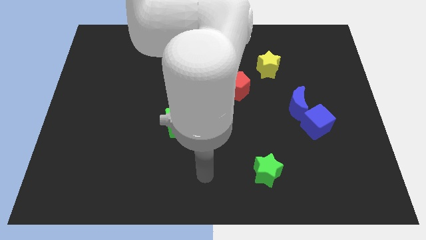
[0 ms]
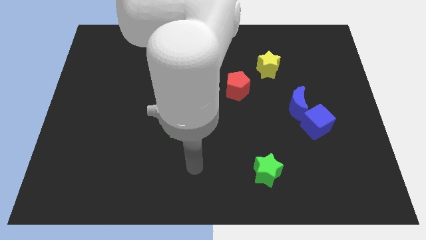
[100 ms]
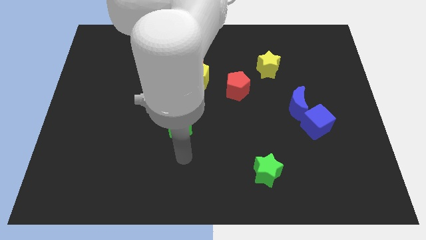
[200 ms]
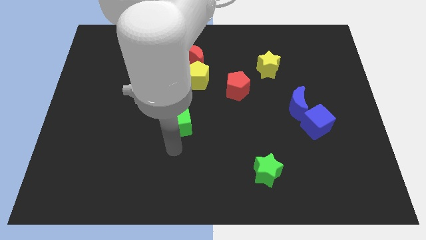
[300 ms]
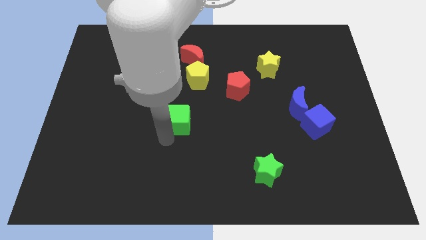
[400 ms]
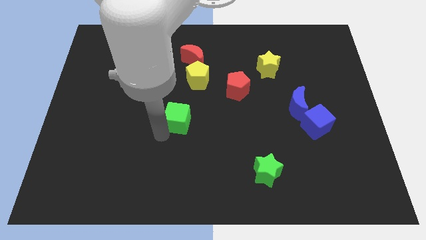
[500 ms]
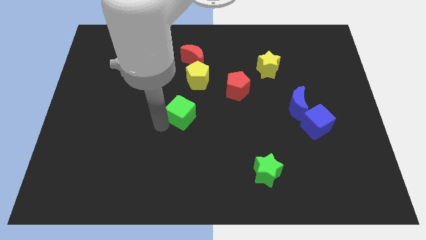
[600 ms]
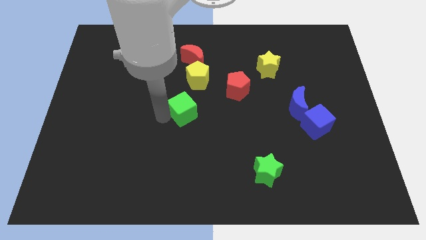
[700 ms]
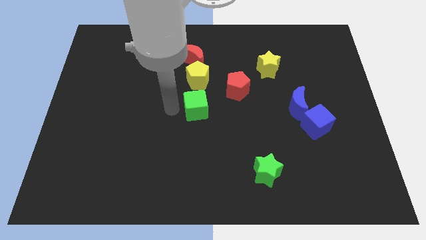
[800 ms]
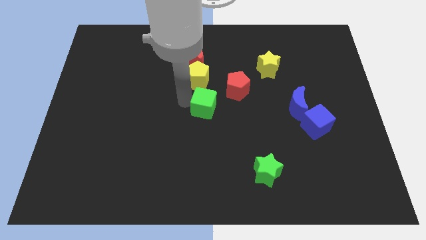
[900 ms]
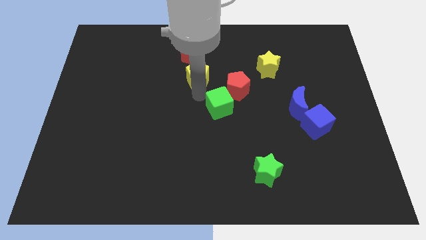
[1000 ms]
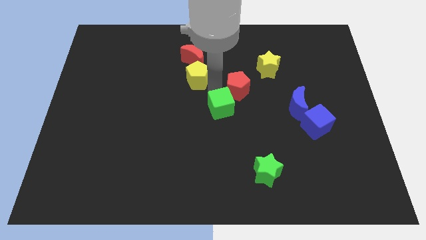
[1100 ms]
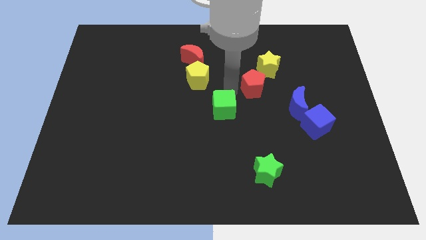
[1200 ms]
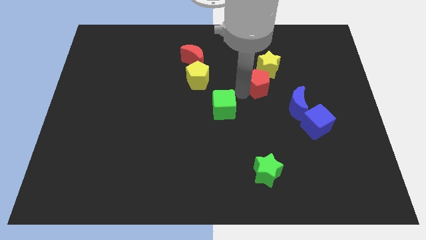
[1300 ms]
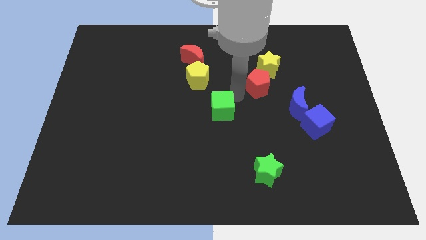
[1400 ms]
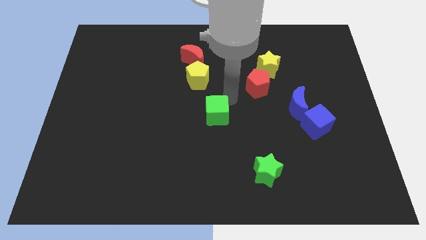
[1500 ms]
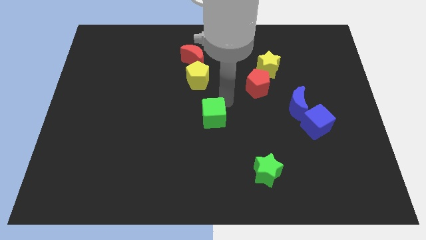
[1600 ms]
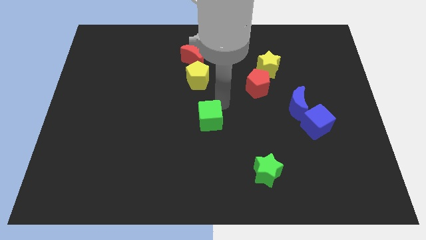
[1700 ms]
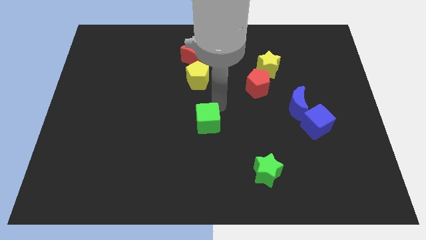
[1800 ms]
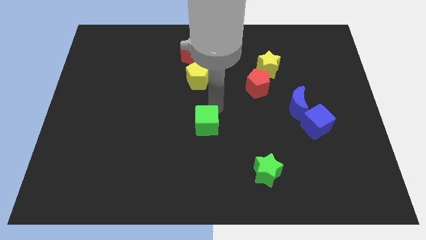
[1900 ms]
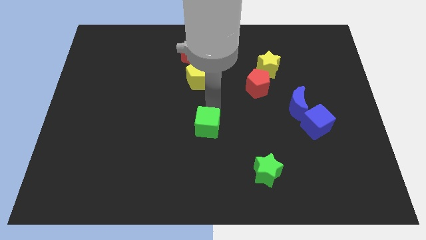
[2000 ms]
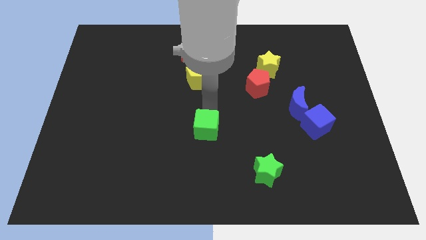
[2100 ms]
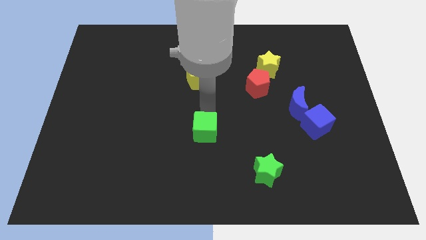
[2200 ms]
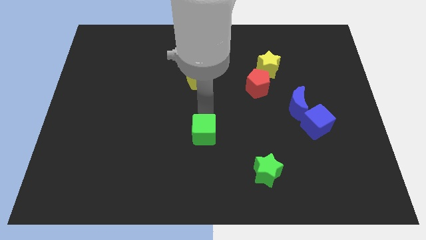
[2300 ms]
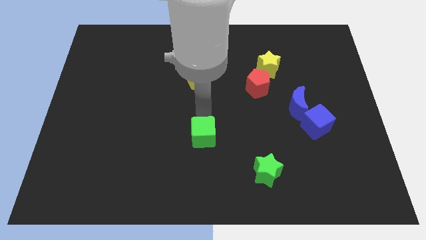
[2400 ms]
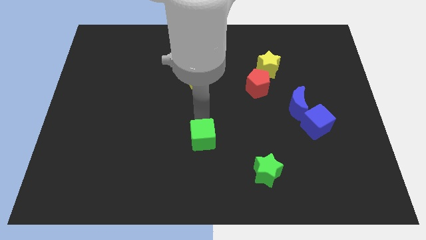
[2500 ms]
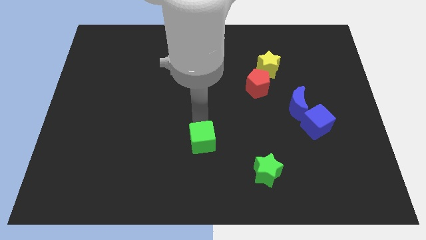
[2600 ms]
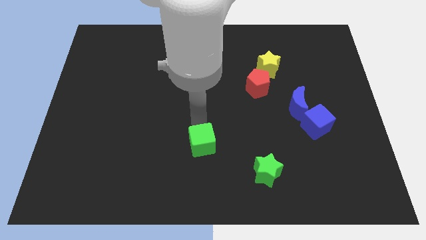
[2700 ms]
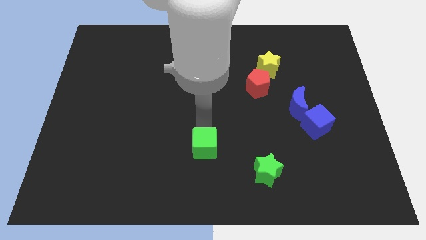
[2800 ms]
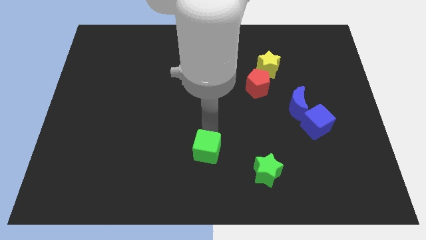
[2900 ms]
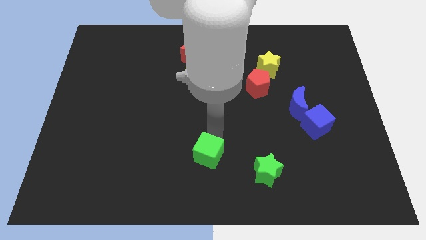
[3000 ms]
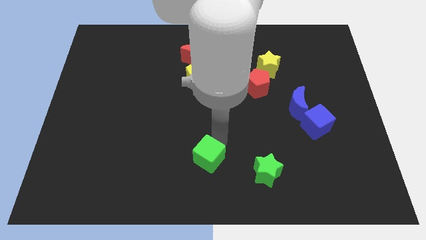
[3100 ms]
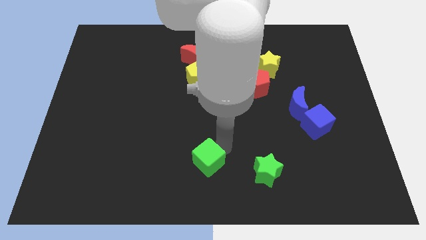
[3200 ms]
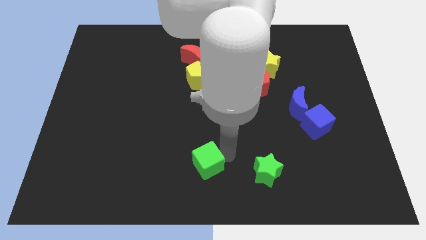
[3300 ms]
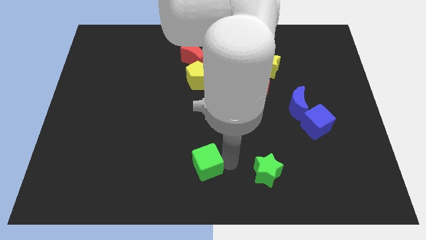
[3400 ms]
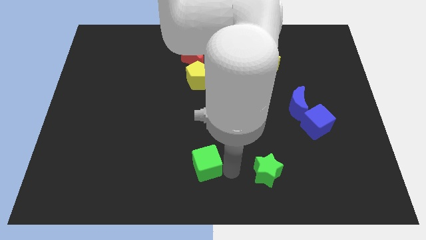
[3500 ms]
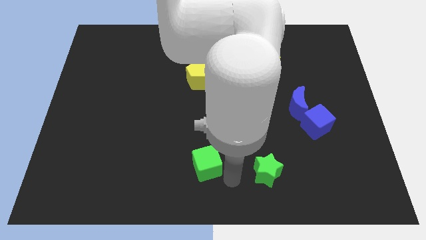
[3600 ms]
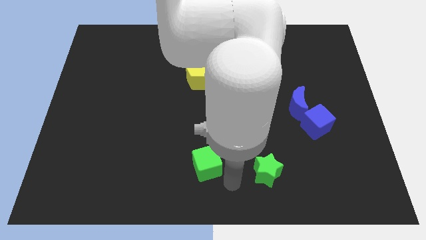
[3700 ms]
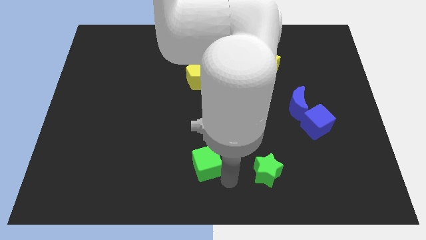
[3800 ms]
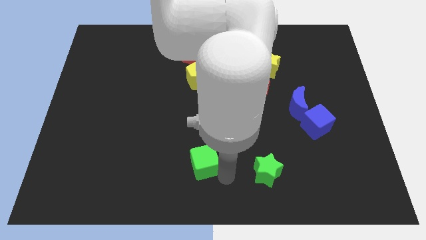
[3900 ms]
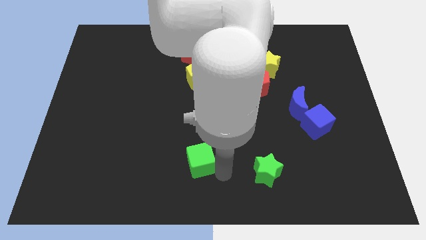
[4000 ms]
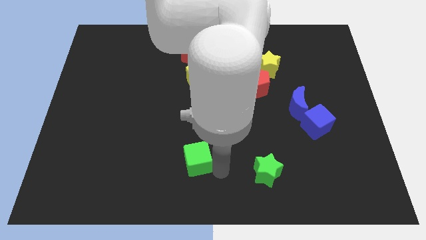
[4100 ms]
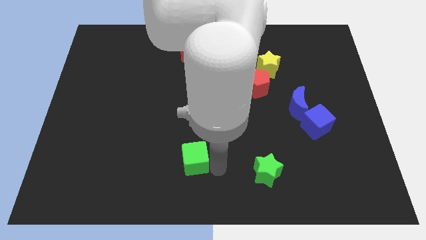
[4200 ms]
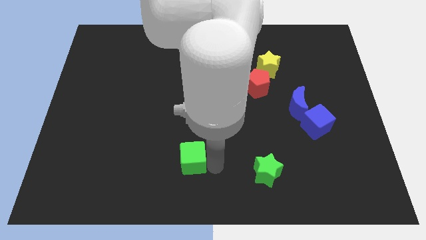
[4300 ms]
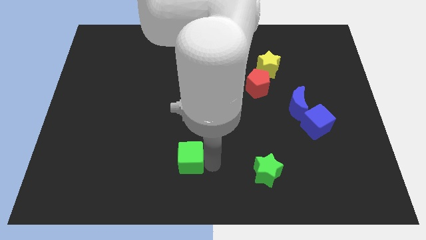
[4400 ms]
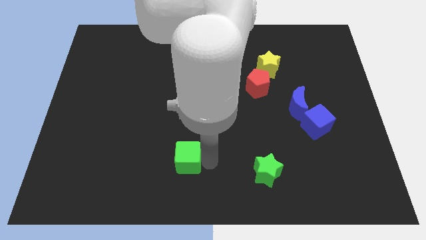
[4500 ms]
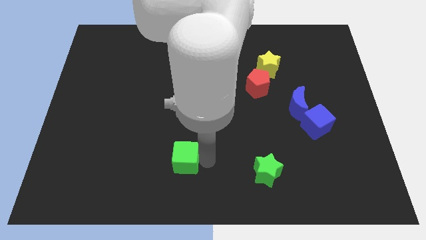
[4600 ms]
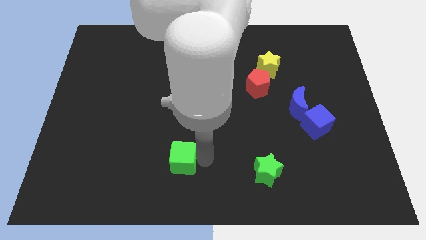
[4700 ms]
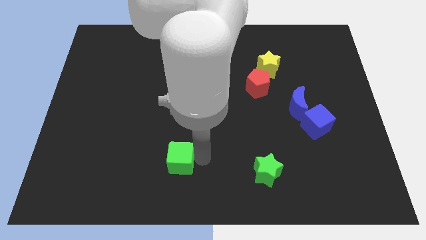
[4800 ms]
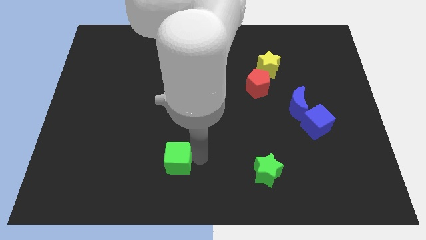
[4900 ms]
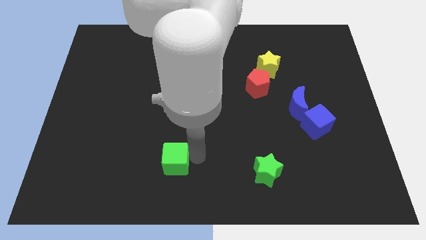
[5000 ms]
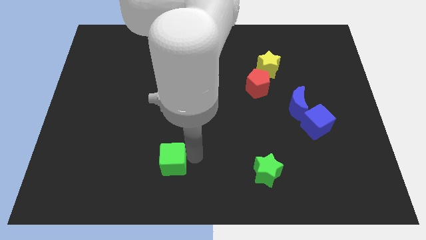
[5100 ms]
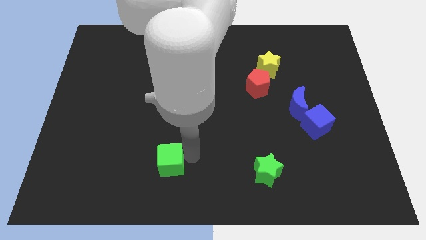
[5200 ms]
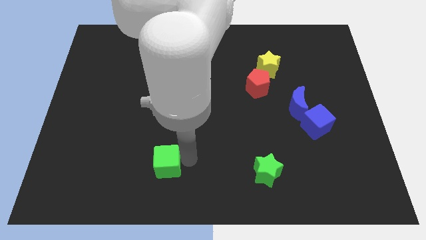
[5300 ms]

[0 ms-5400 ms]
slightly push the green cube down and left

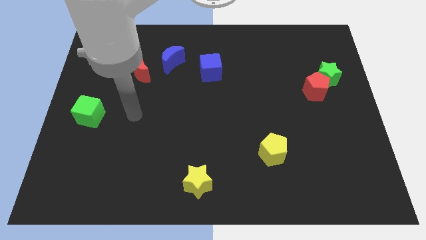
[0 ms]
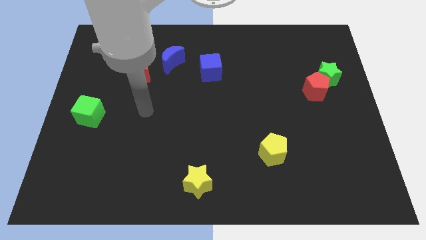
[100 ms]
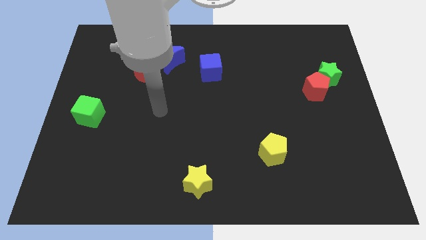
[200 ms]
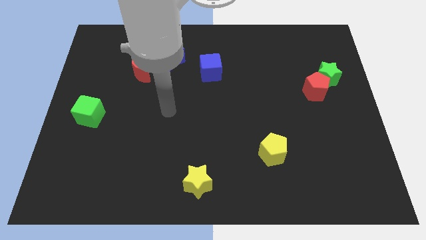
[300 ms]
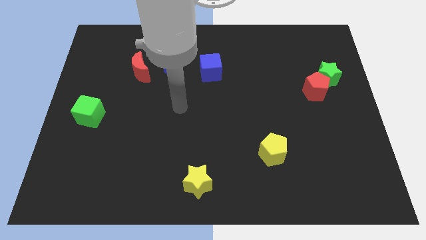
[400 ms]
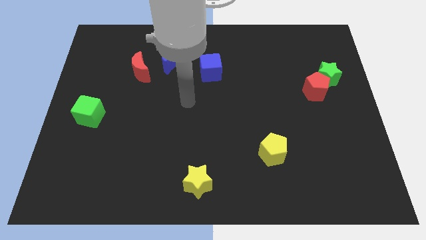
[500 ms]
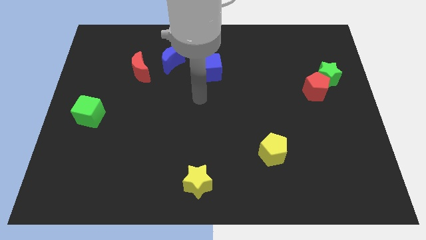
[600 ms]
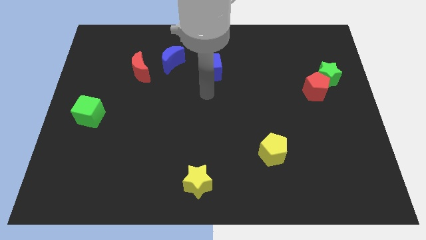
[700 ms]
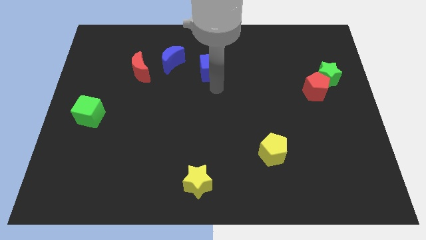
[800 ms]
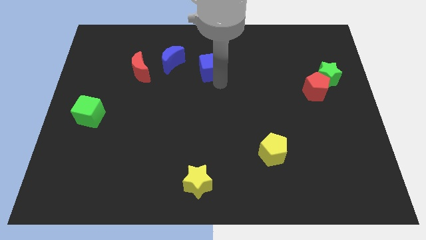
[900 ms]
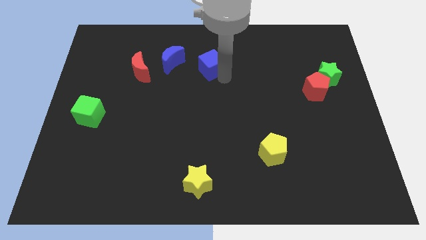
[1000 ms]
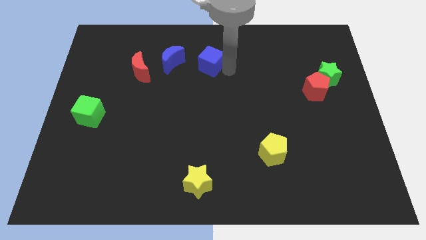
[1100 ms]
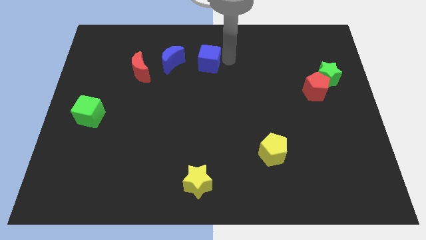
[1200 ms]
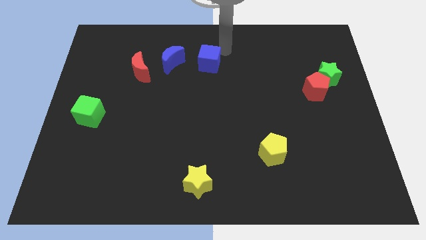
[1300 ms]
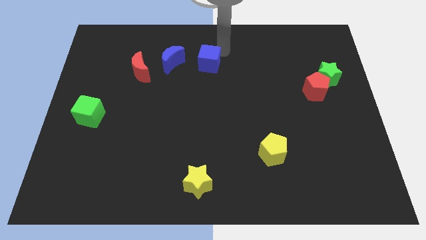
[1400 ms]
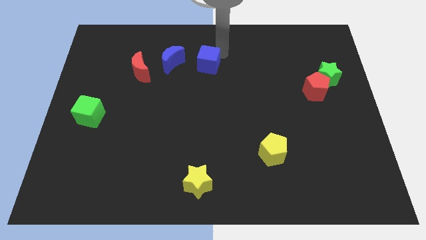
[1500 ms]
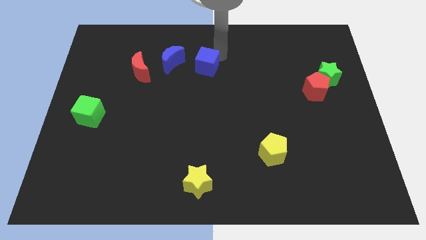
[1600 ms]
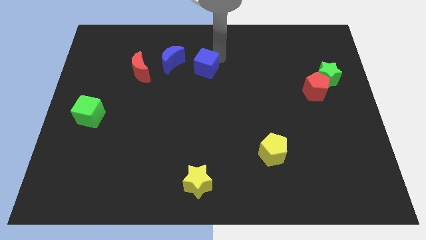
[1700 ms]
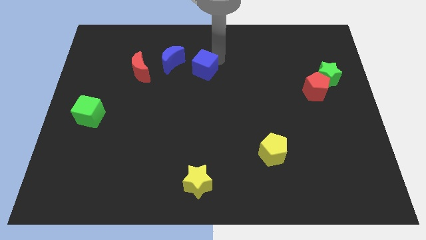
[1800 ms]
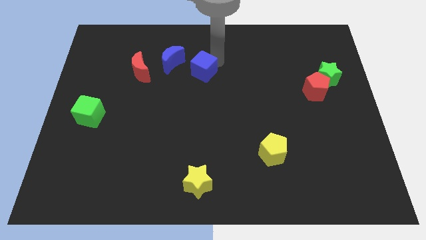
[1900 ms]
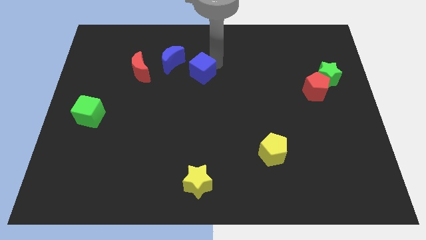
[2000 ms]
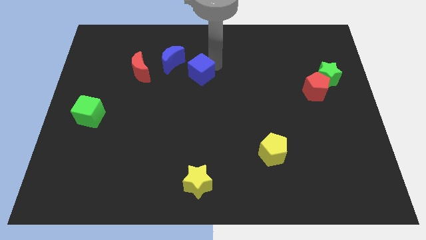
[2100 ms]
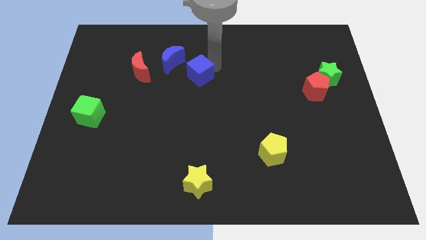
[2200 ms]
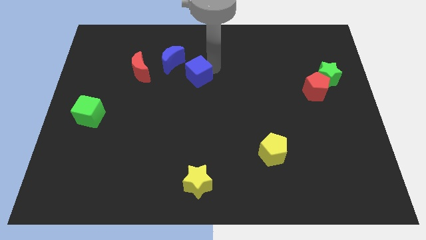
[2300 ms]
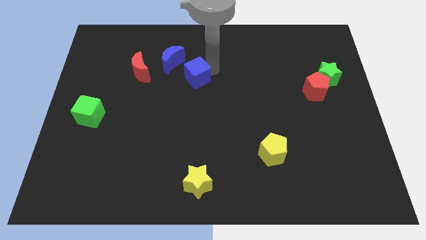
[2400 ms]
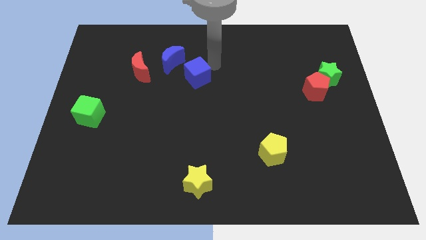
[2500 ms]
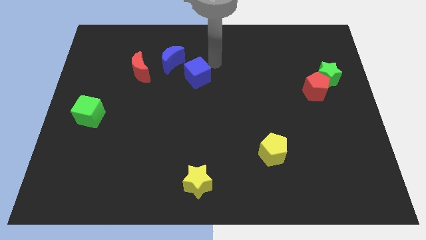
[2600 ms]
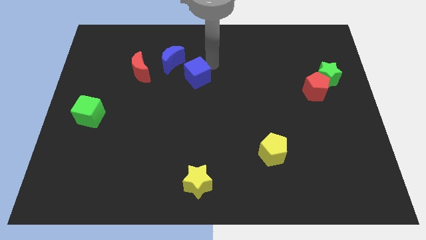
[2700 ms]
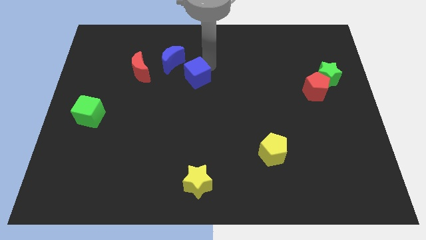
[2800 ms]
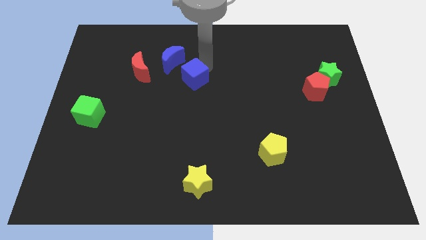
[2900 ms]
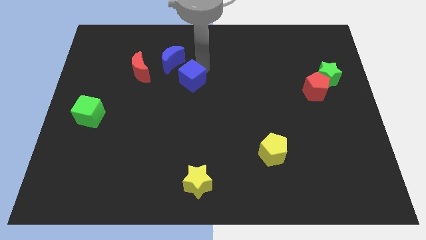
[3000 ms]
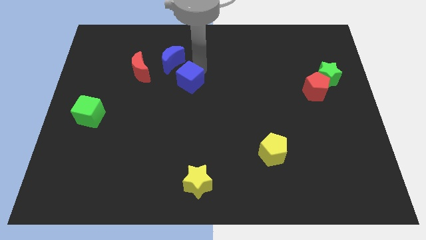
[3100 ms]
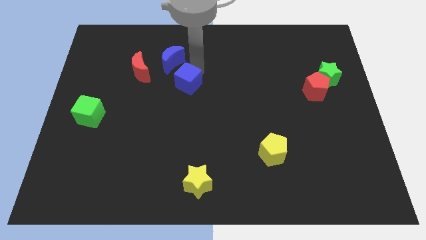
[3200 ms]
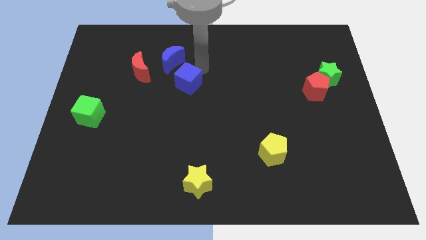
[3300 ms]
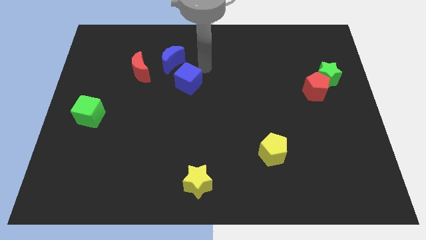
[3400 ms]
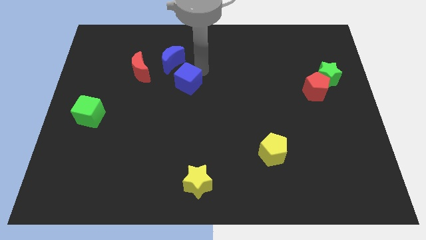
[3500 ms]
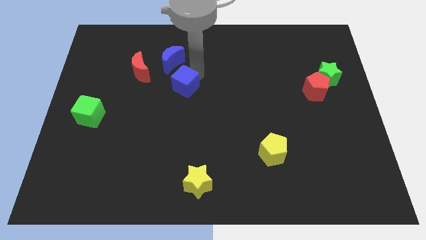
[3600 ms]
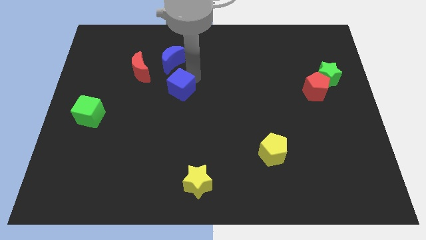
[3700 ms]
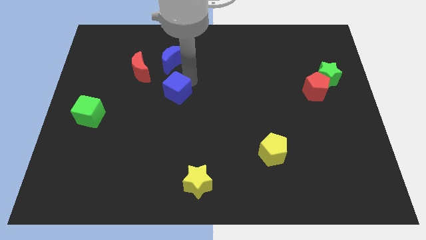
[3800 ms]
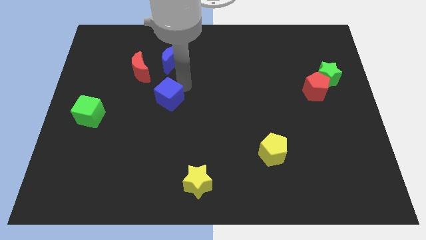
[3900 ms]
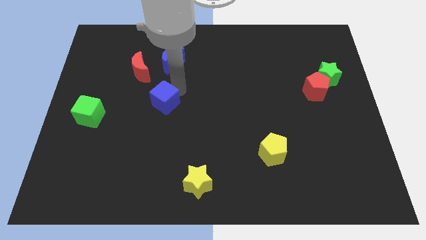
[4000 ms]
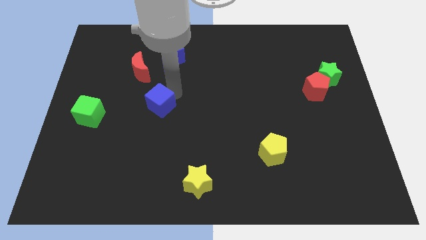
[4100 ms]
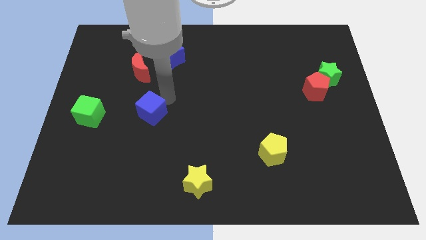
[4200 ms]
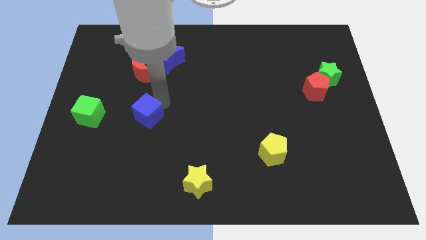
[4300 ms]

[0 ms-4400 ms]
move the blue cube downwards and then left
